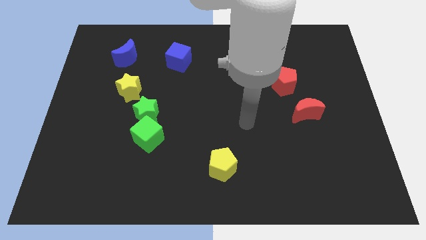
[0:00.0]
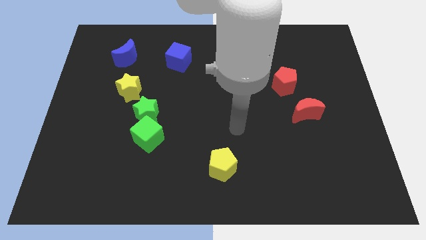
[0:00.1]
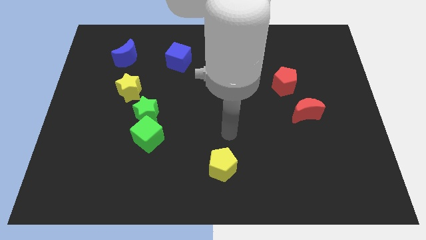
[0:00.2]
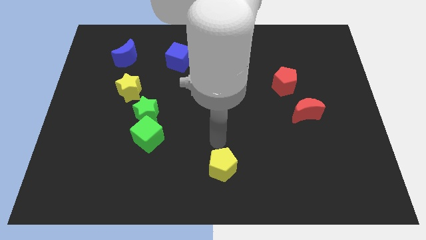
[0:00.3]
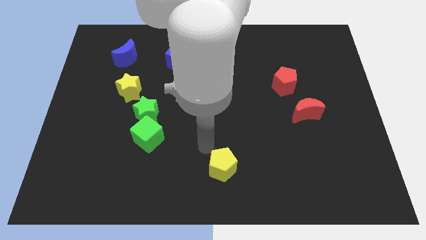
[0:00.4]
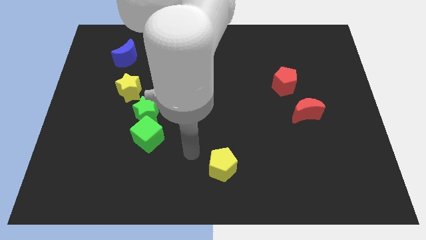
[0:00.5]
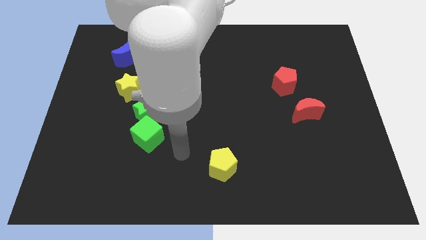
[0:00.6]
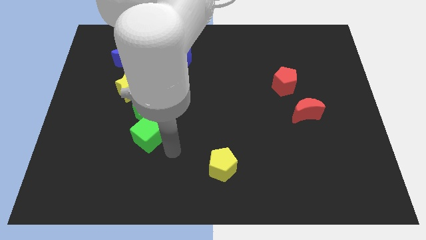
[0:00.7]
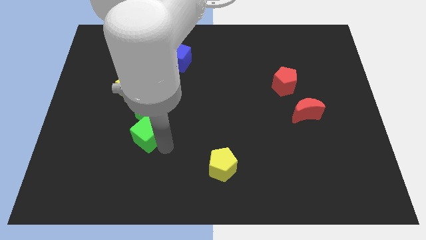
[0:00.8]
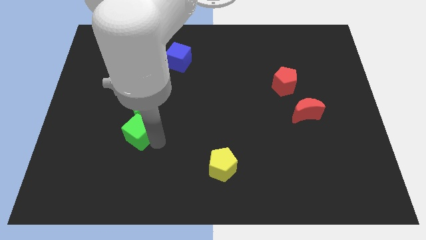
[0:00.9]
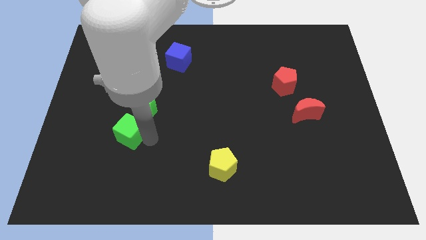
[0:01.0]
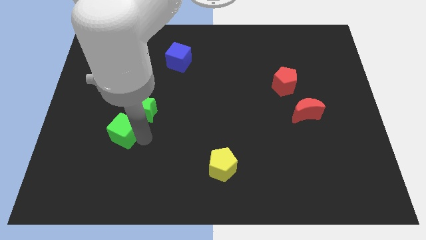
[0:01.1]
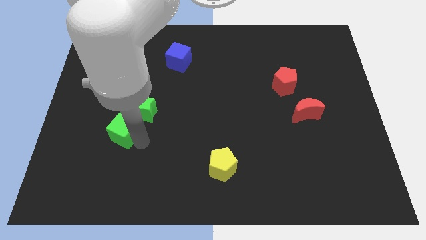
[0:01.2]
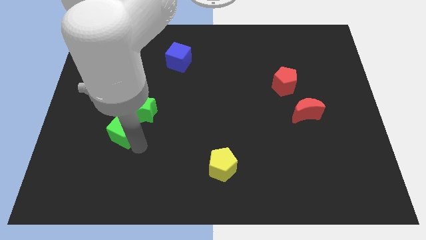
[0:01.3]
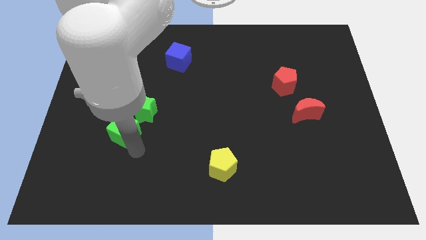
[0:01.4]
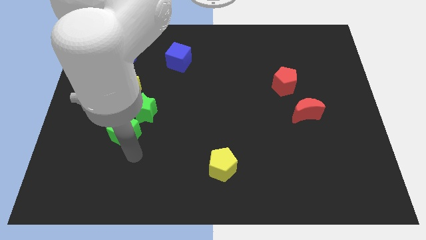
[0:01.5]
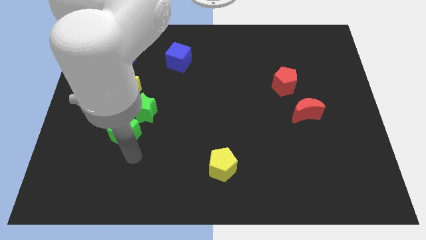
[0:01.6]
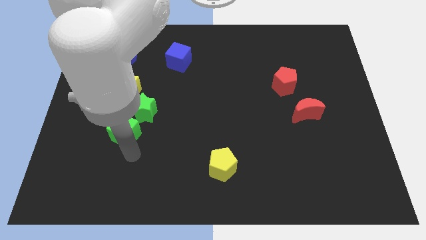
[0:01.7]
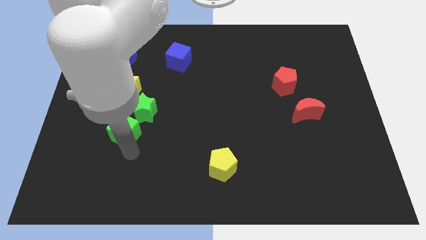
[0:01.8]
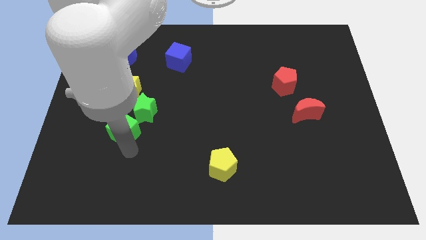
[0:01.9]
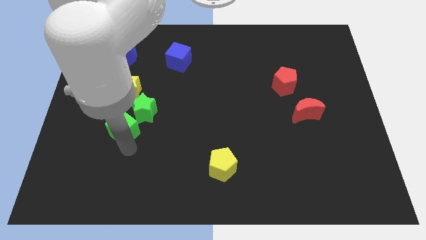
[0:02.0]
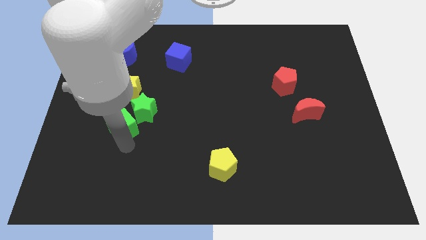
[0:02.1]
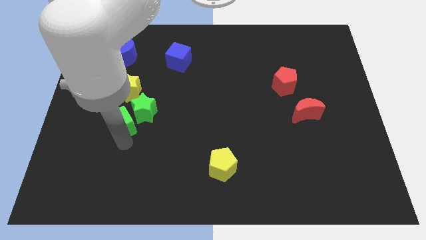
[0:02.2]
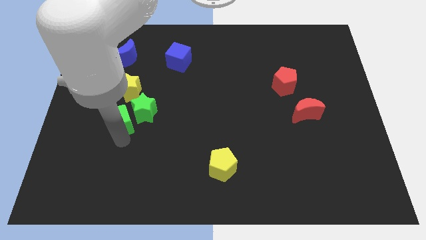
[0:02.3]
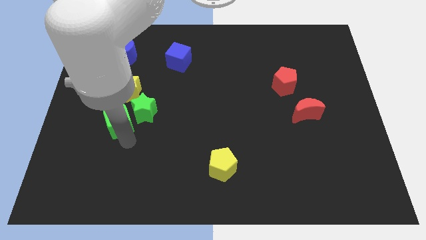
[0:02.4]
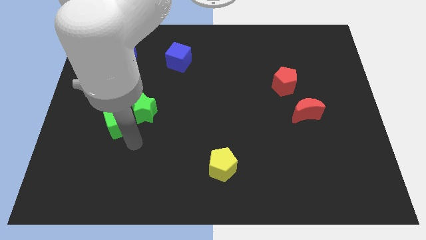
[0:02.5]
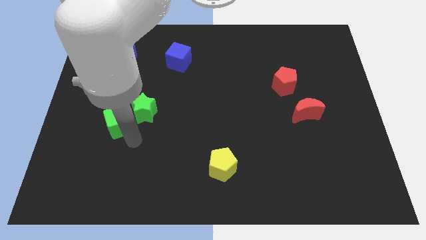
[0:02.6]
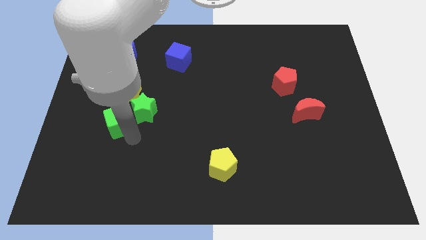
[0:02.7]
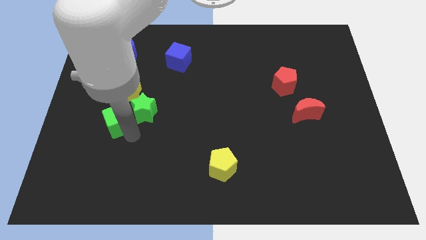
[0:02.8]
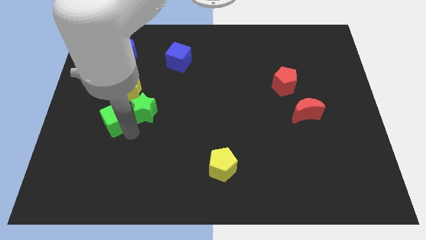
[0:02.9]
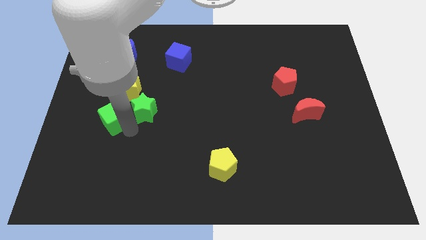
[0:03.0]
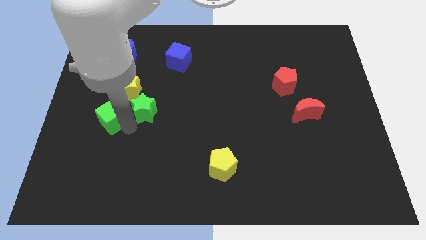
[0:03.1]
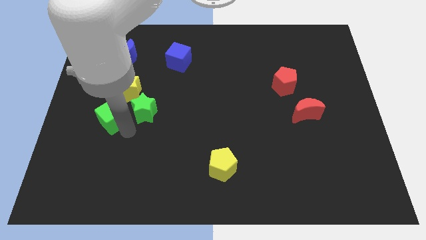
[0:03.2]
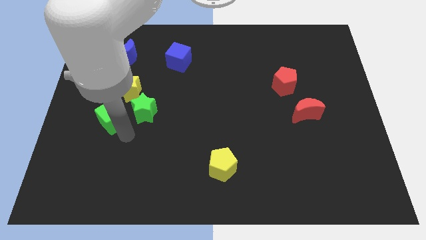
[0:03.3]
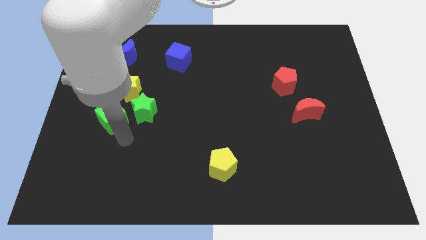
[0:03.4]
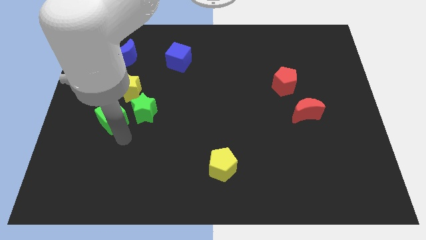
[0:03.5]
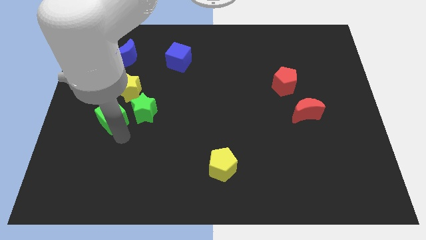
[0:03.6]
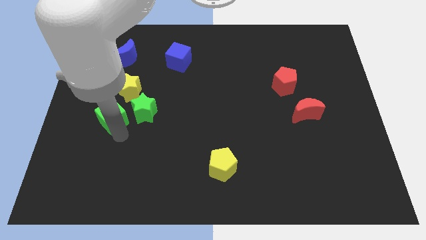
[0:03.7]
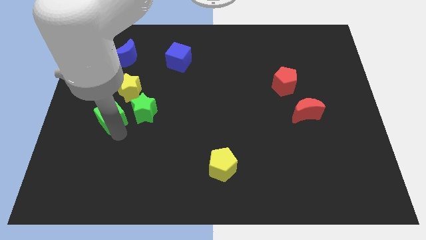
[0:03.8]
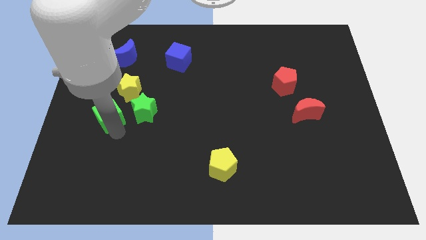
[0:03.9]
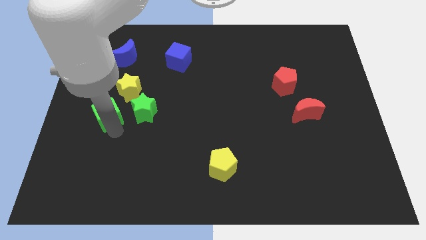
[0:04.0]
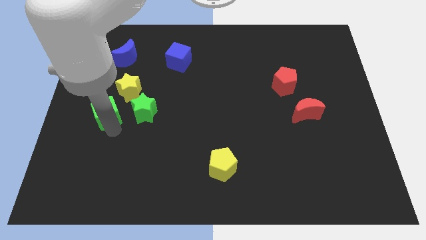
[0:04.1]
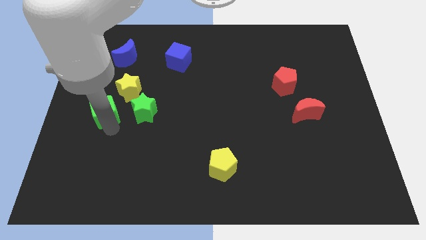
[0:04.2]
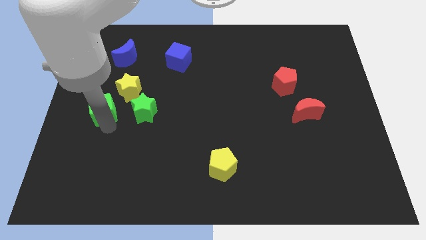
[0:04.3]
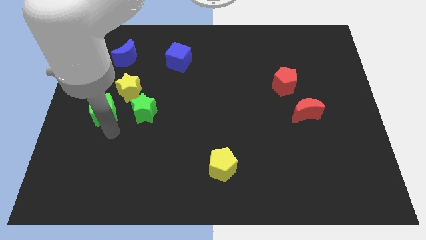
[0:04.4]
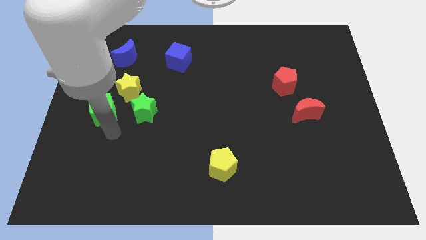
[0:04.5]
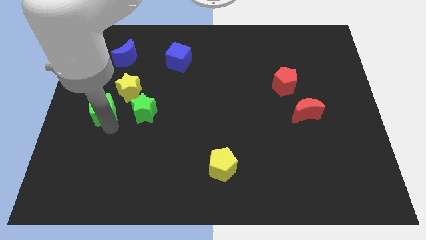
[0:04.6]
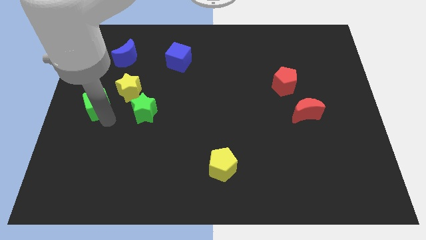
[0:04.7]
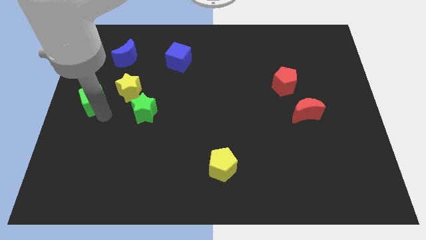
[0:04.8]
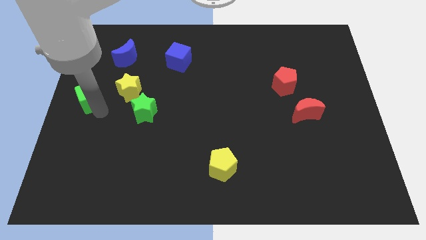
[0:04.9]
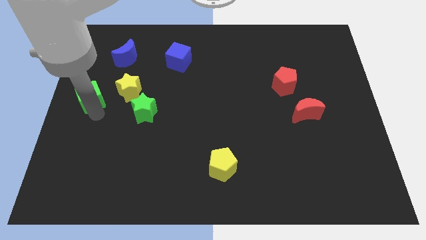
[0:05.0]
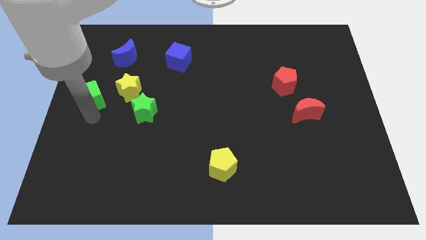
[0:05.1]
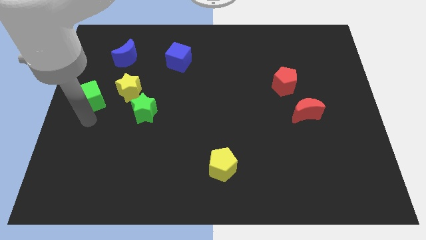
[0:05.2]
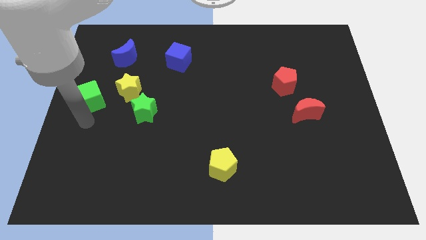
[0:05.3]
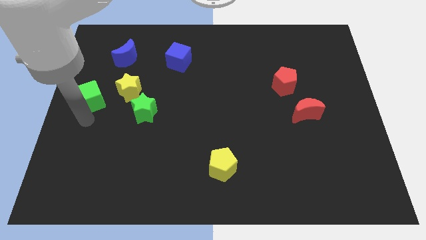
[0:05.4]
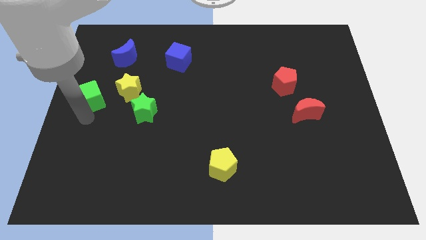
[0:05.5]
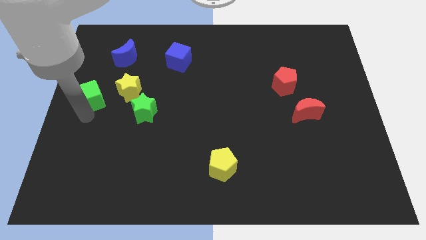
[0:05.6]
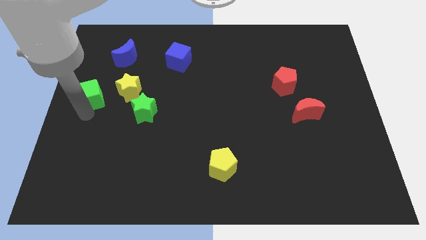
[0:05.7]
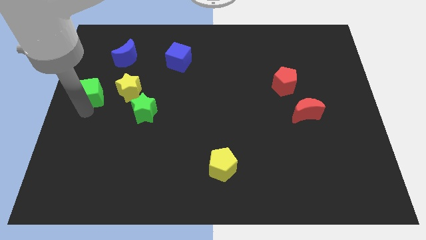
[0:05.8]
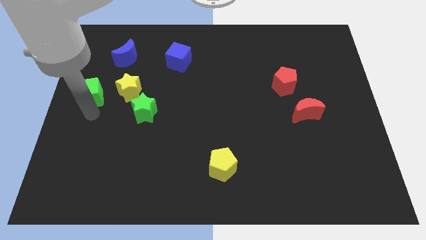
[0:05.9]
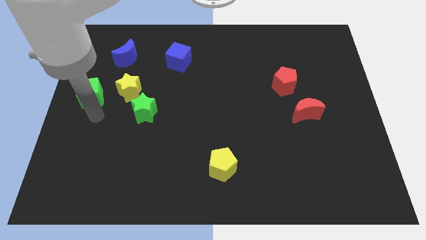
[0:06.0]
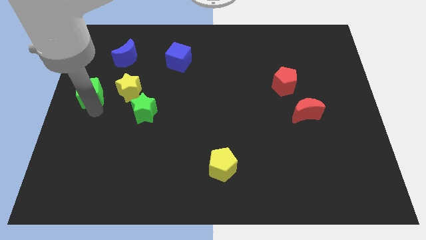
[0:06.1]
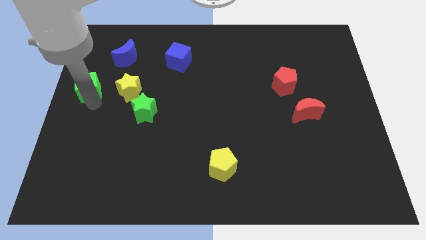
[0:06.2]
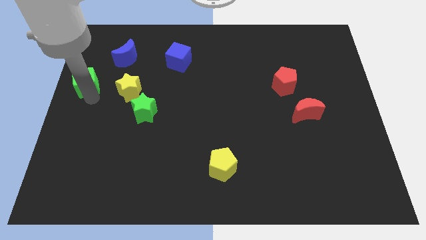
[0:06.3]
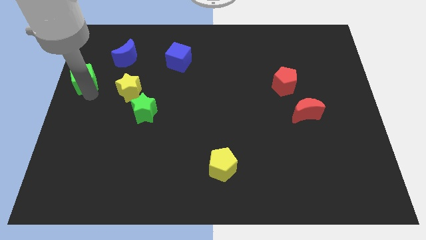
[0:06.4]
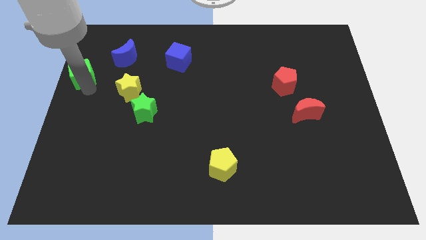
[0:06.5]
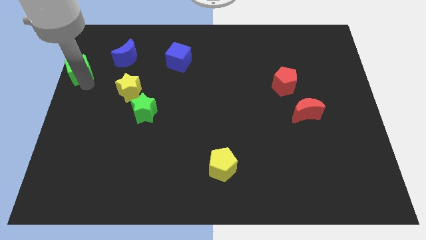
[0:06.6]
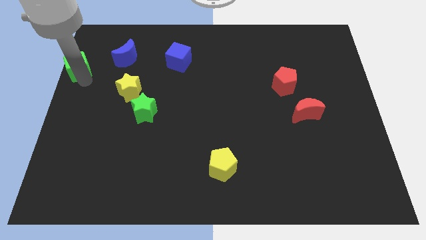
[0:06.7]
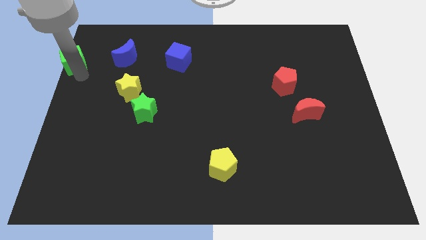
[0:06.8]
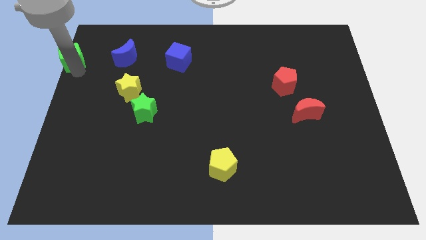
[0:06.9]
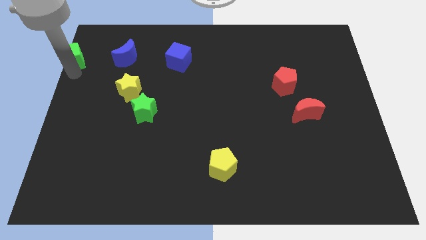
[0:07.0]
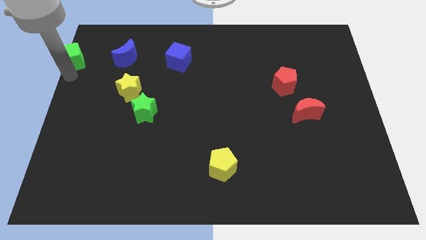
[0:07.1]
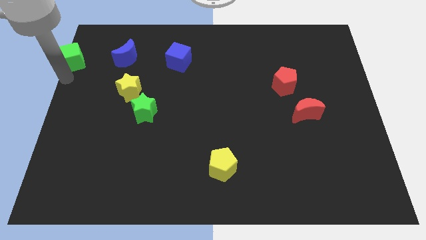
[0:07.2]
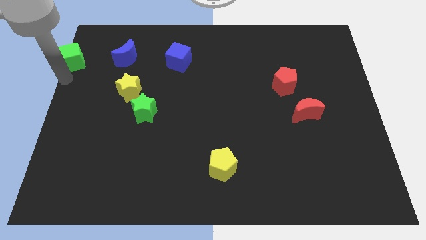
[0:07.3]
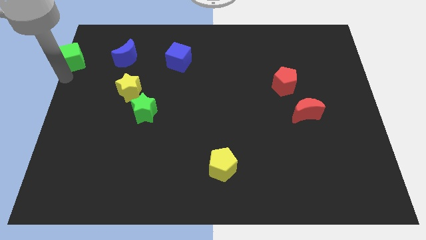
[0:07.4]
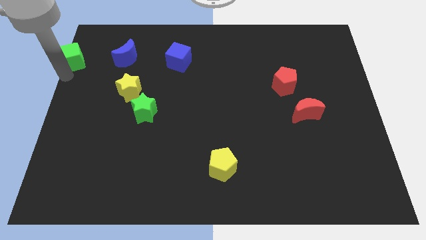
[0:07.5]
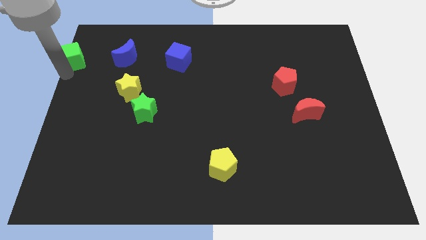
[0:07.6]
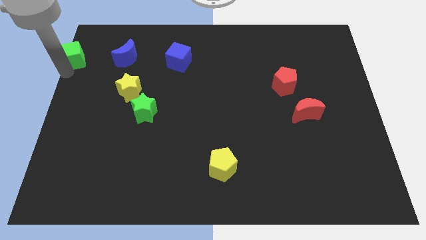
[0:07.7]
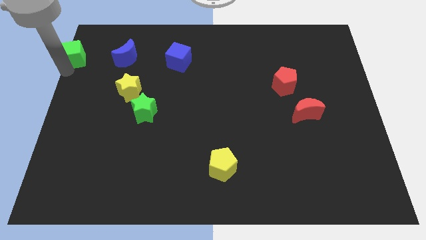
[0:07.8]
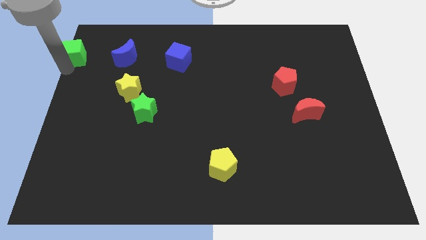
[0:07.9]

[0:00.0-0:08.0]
put the green cube to the top left corner
